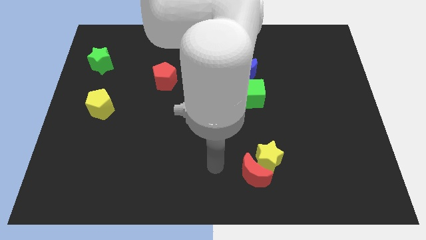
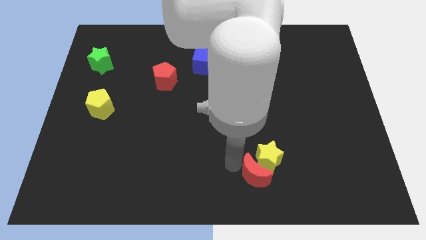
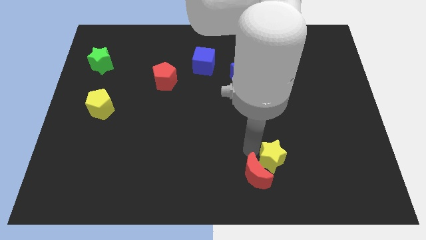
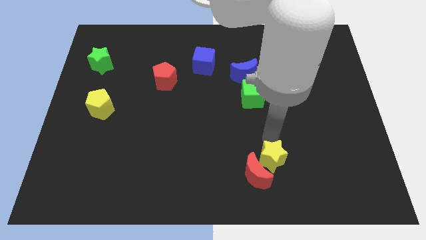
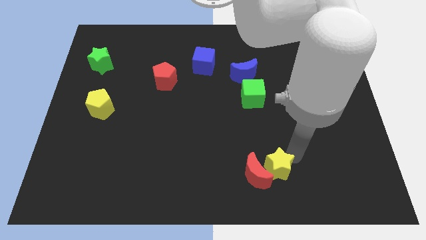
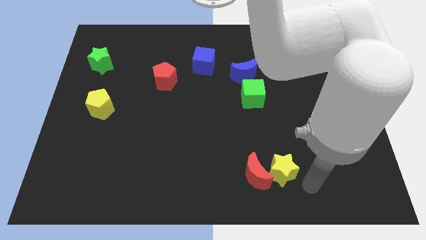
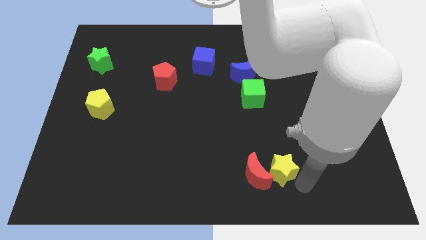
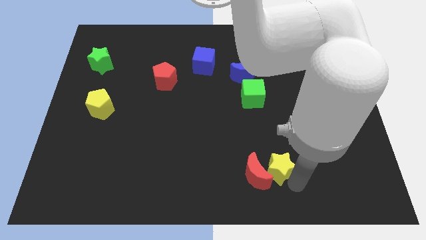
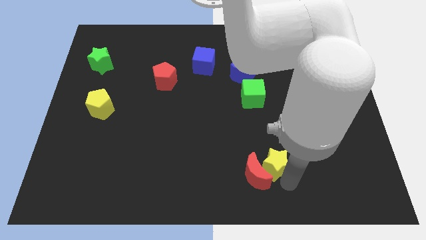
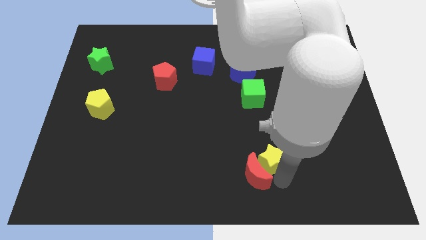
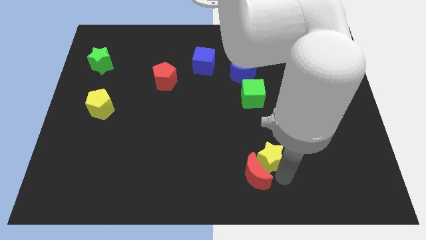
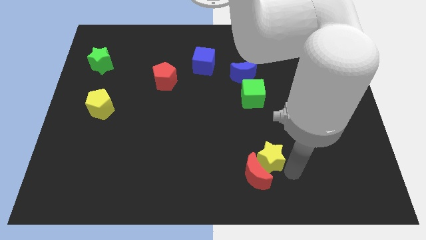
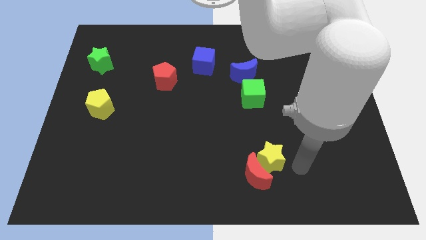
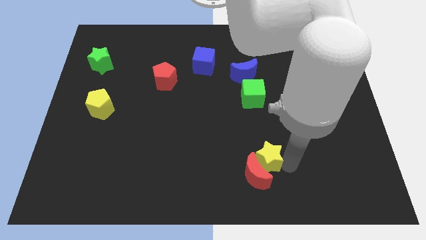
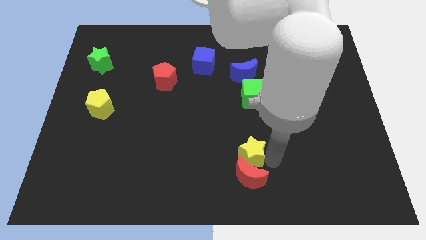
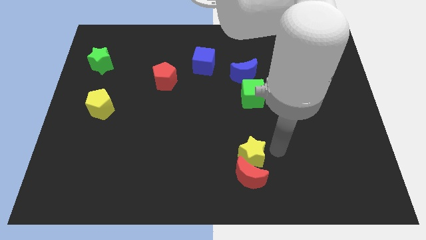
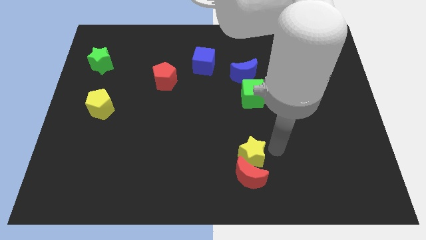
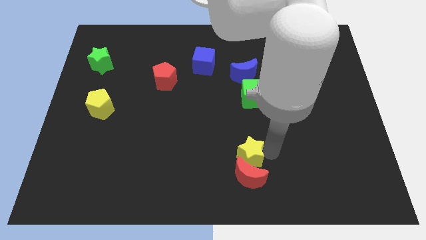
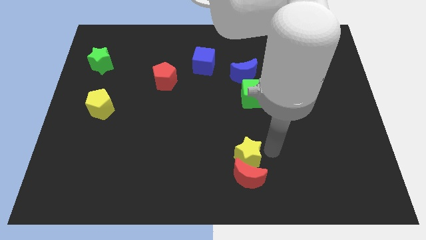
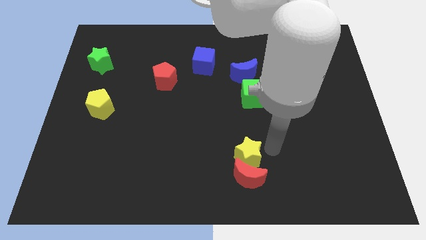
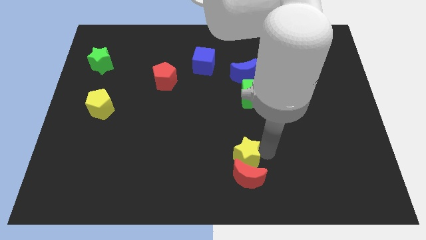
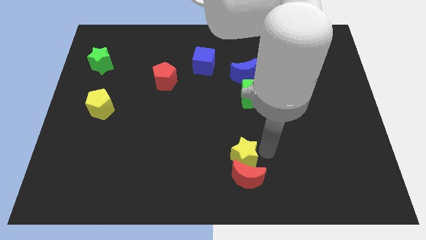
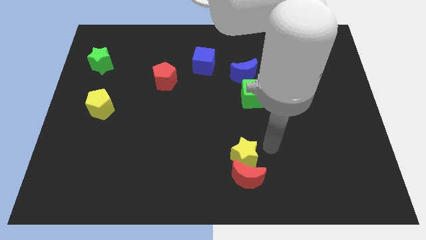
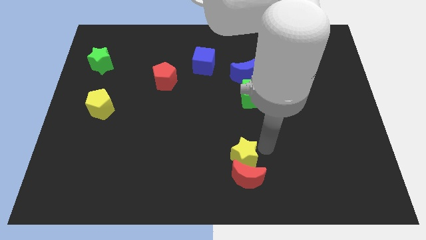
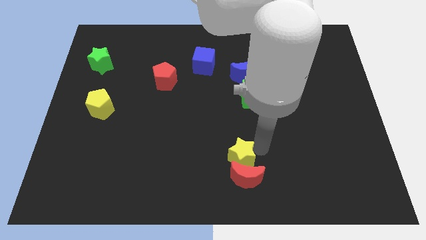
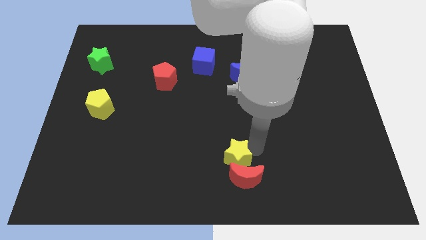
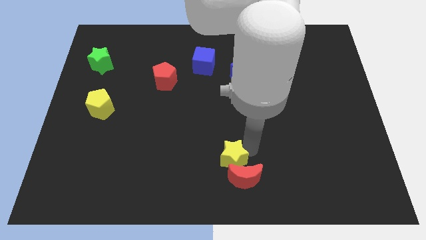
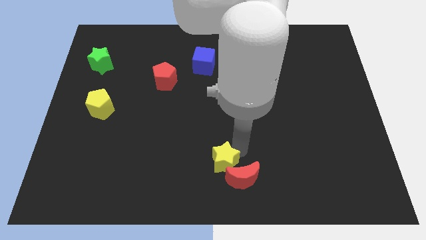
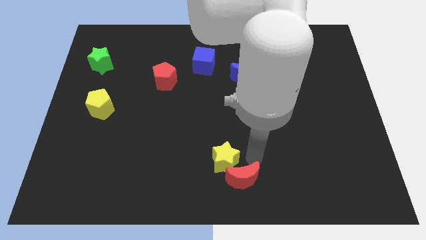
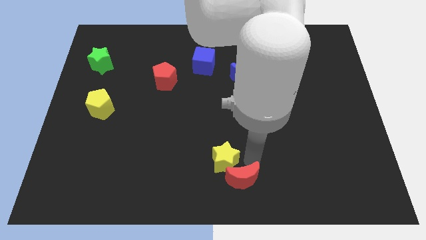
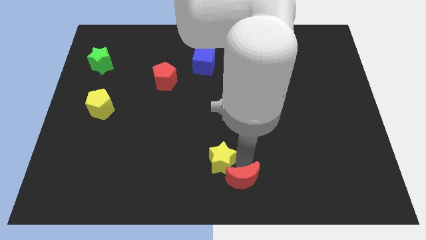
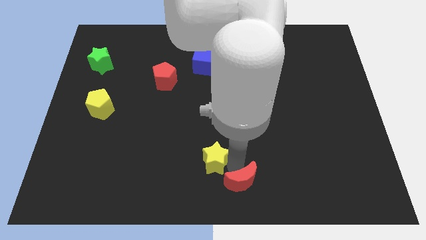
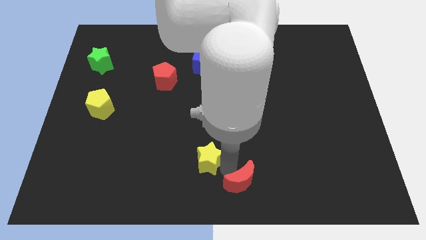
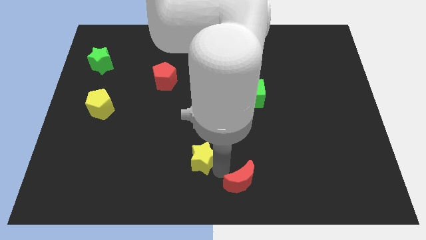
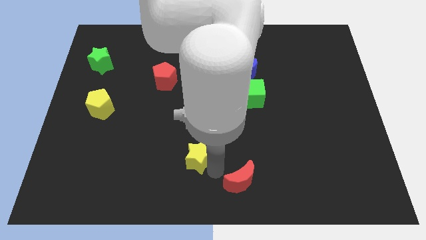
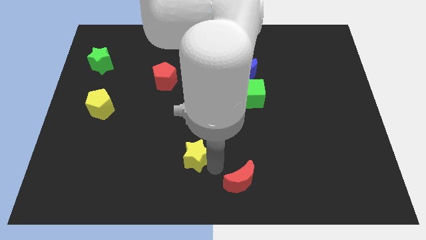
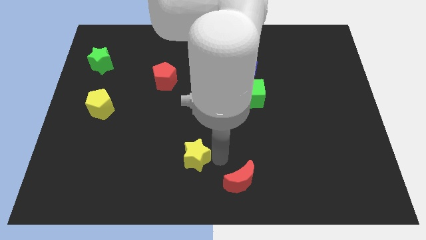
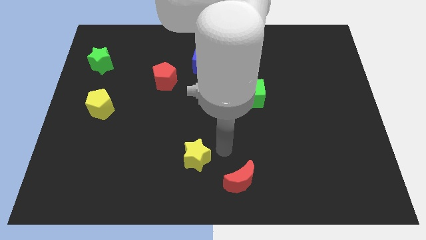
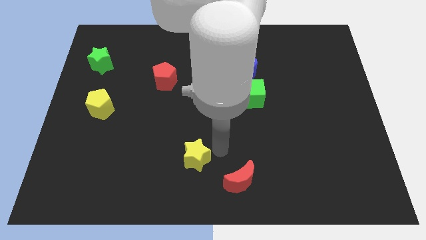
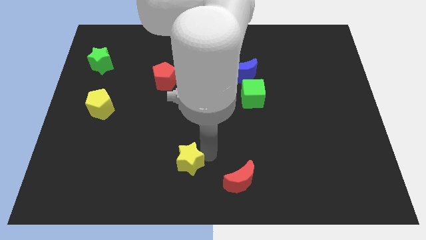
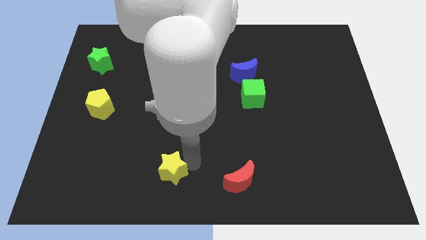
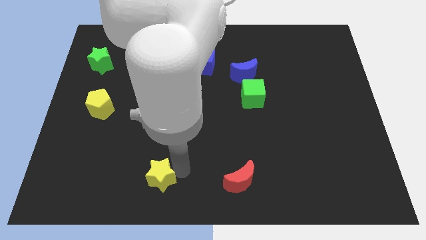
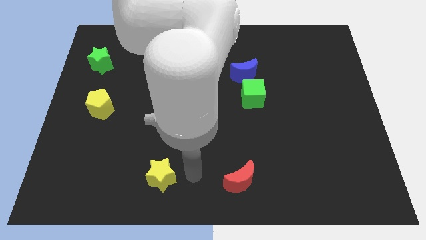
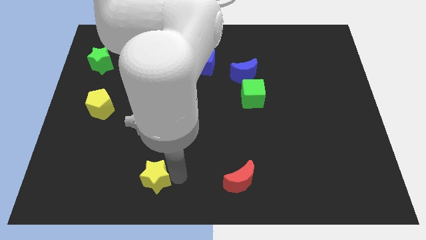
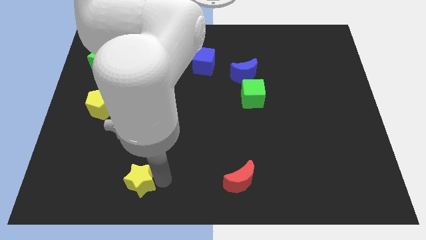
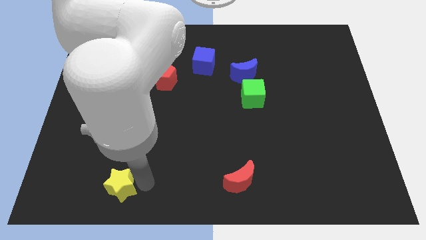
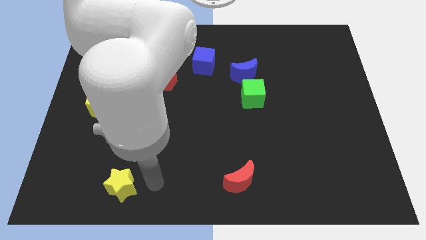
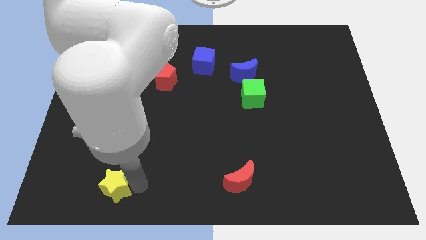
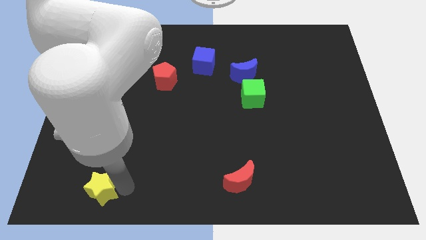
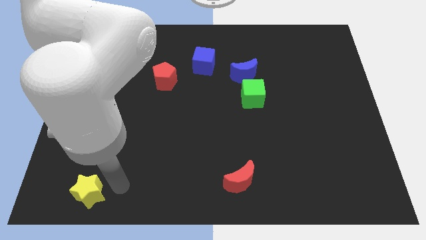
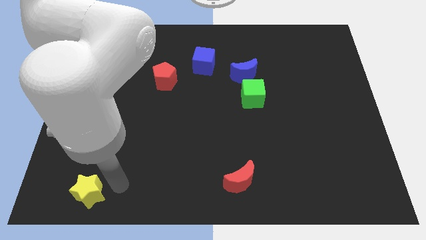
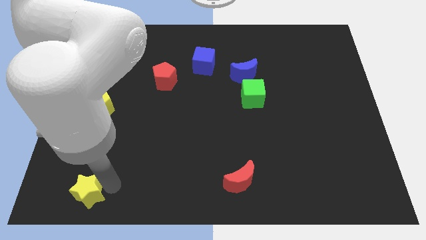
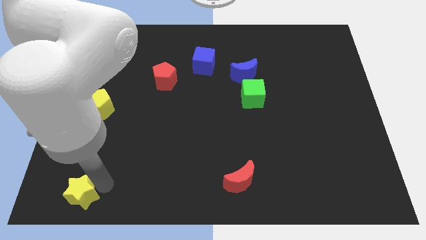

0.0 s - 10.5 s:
push the yellow star to the bottom left of the board

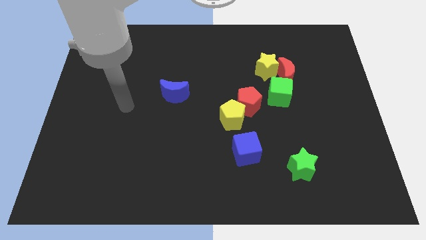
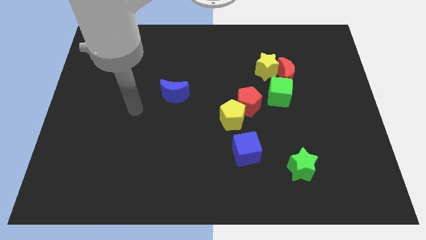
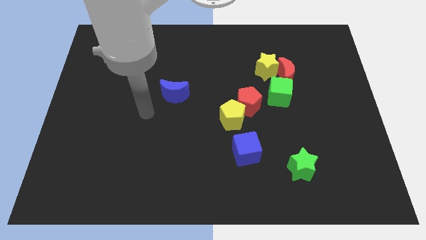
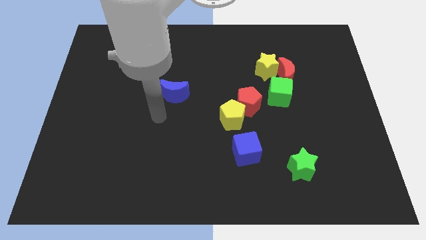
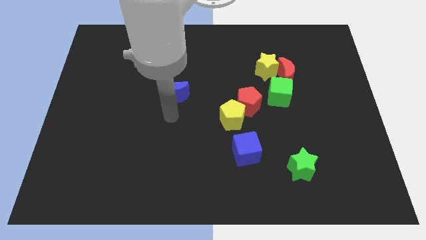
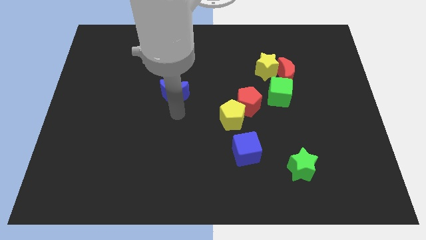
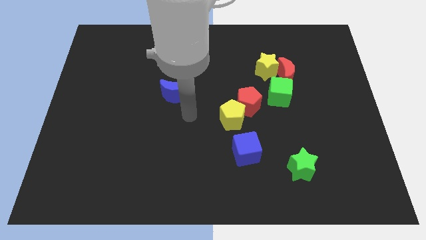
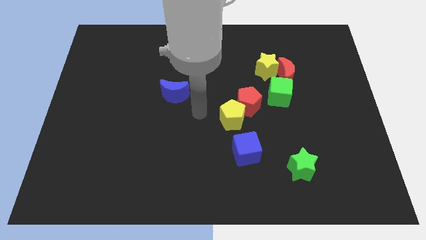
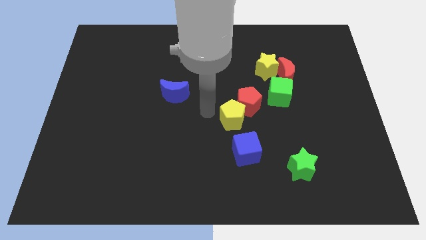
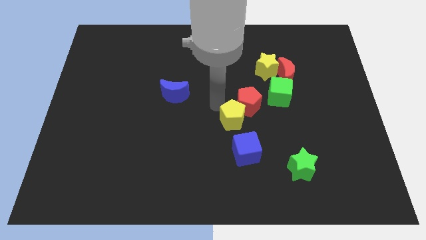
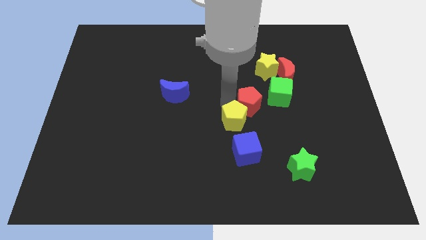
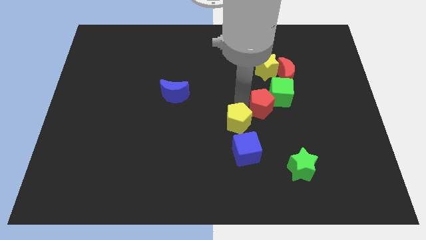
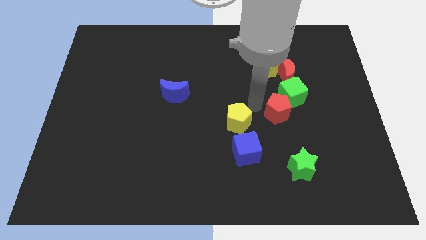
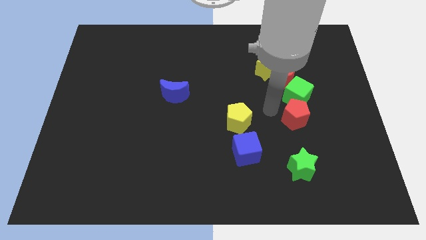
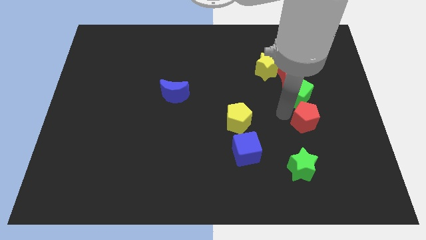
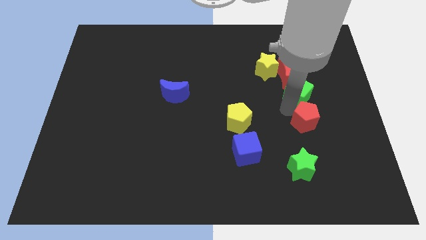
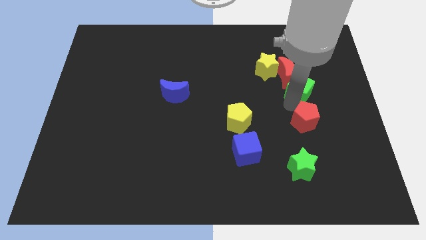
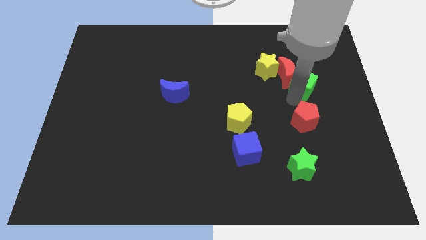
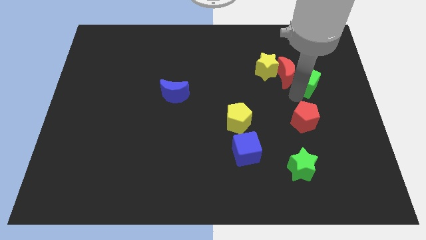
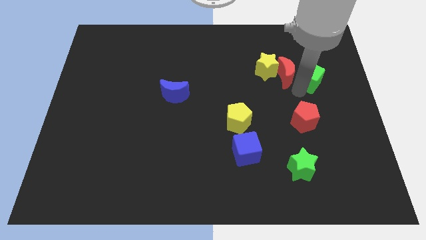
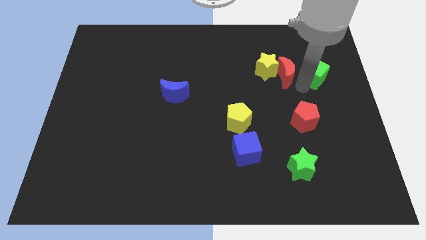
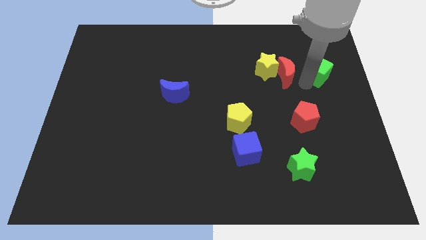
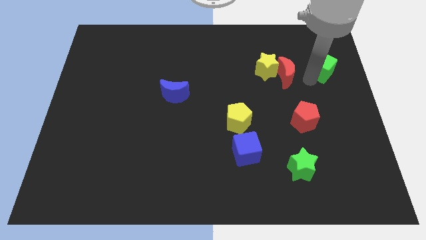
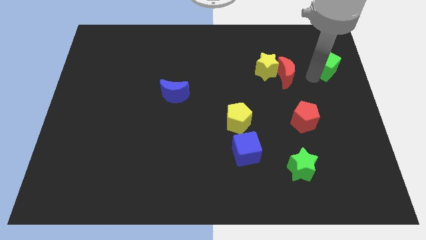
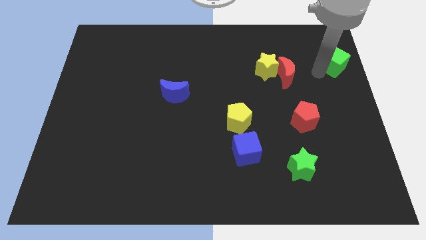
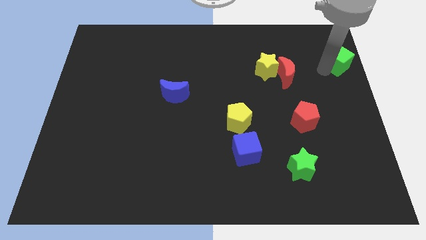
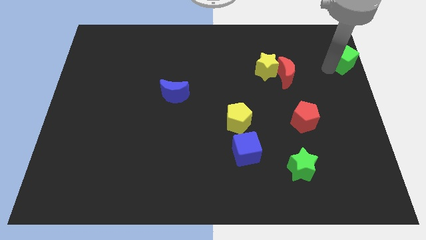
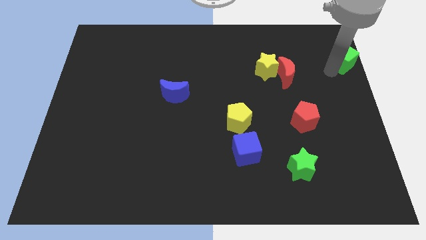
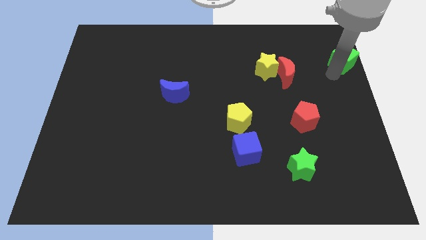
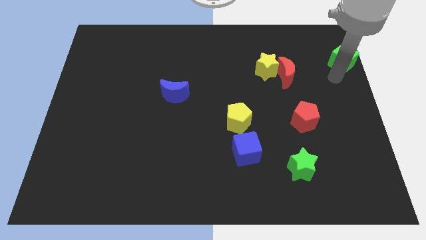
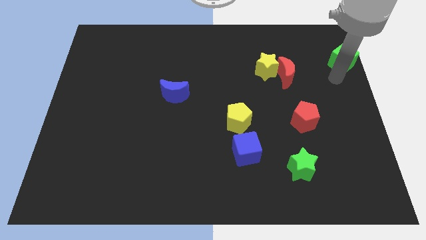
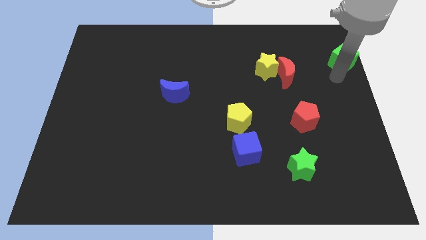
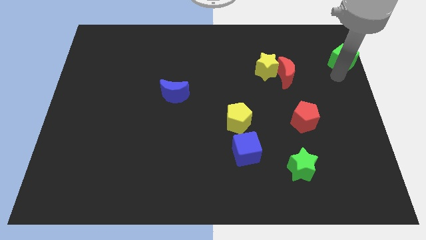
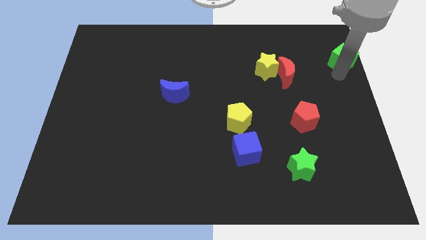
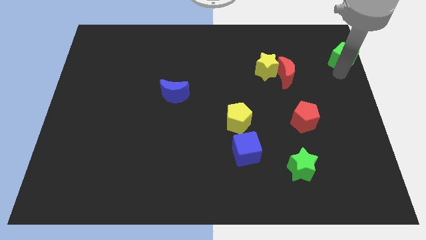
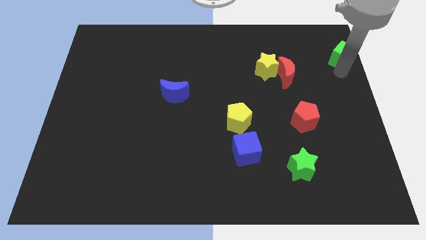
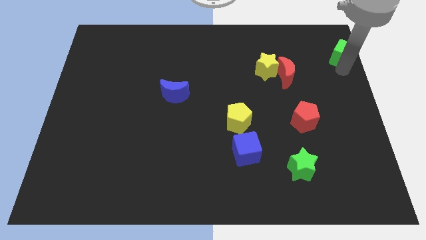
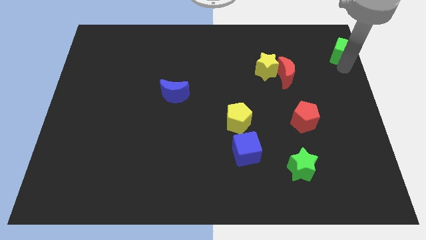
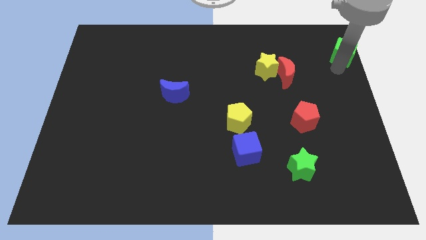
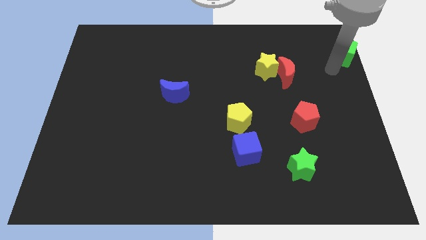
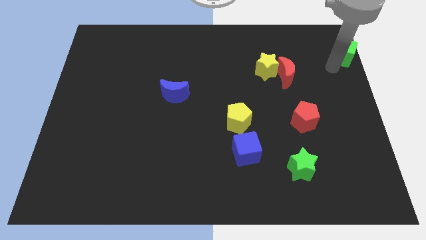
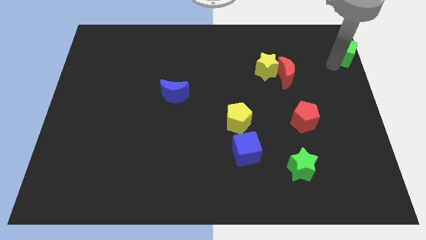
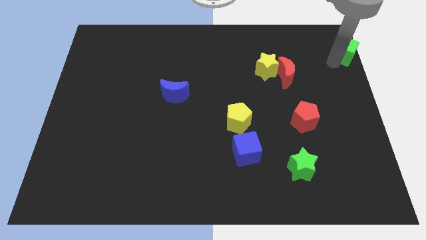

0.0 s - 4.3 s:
move the green cube to the top right
